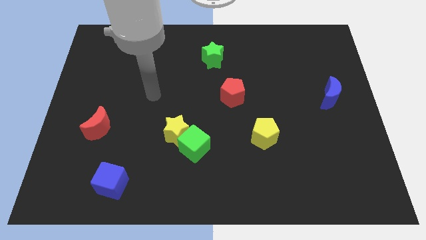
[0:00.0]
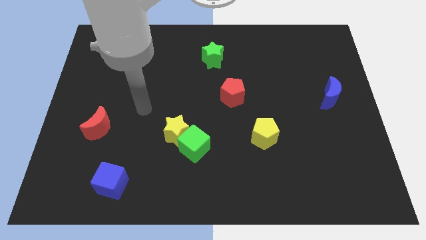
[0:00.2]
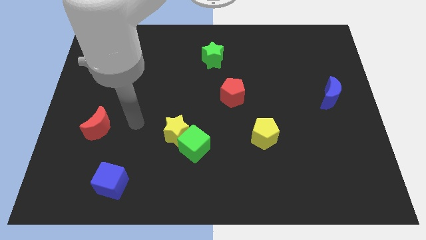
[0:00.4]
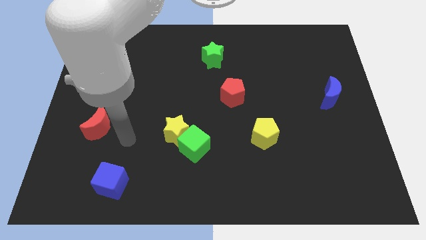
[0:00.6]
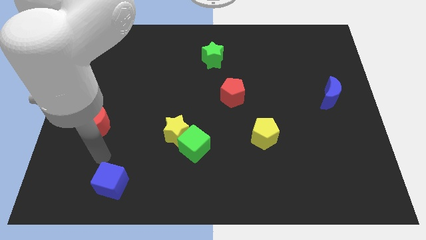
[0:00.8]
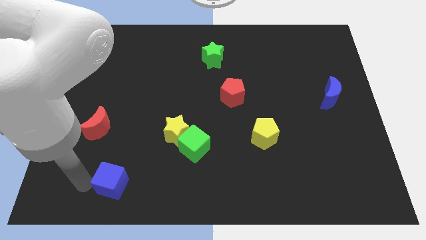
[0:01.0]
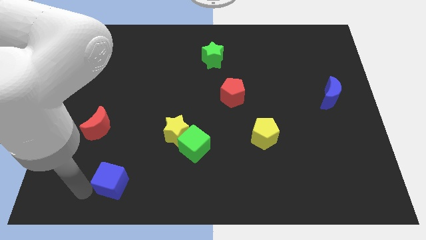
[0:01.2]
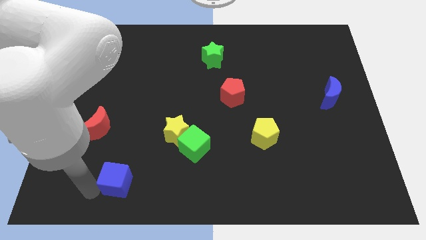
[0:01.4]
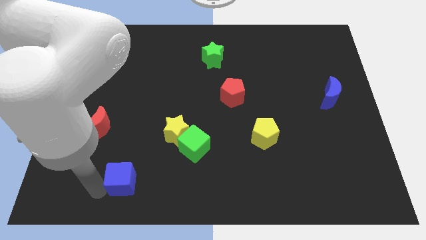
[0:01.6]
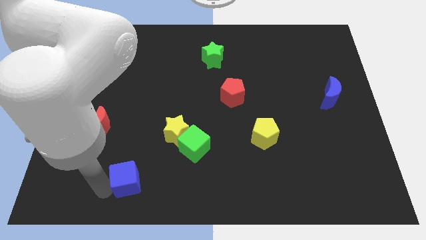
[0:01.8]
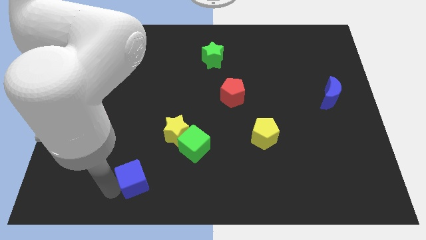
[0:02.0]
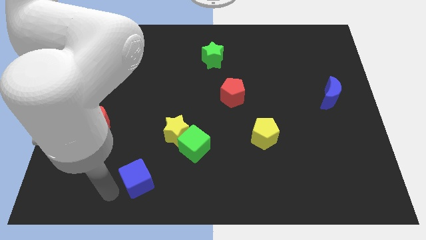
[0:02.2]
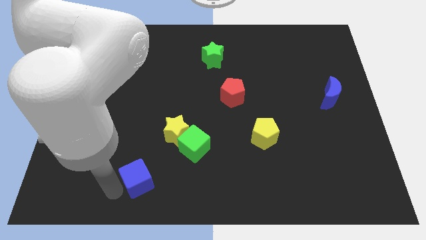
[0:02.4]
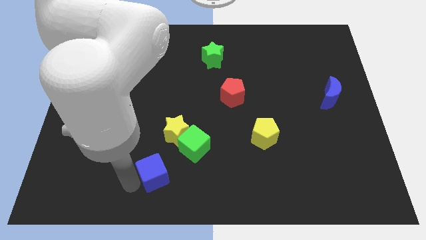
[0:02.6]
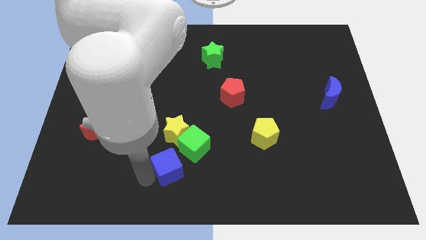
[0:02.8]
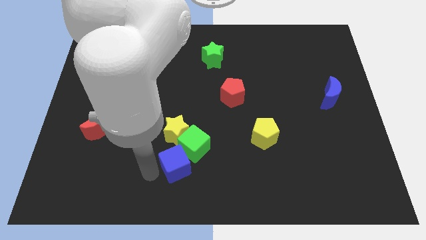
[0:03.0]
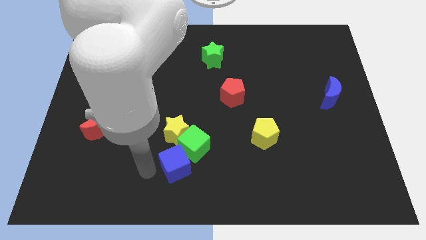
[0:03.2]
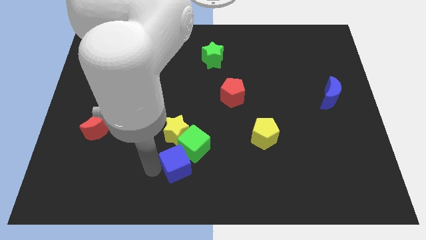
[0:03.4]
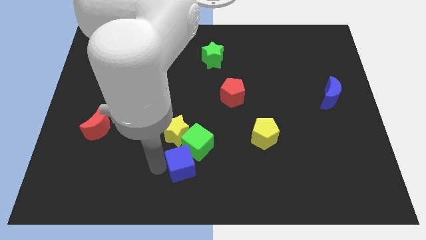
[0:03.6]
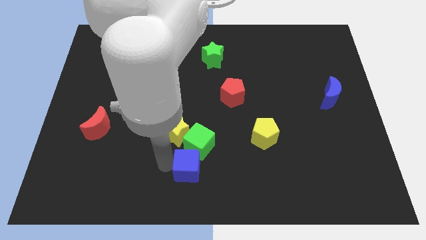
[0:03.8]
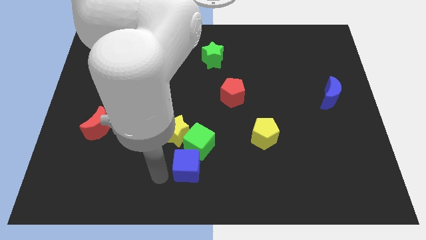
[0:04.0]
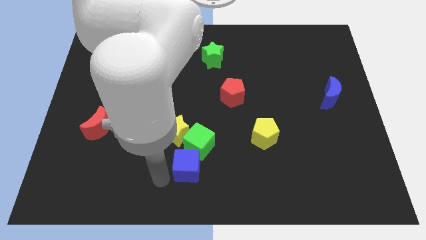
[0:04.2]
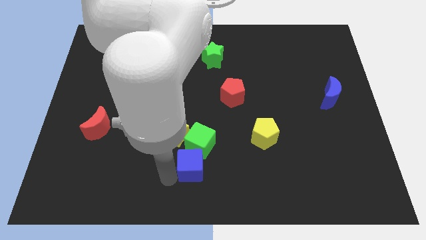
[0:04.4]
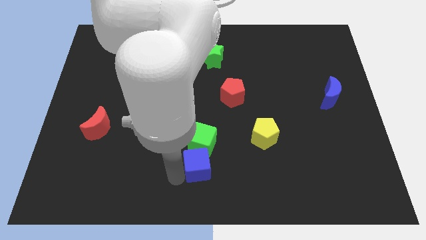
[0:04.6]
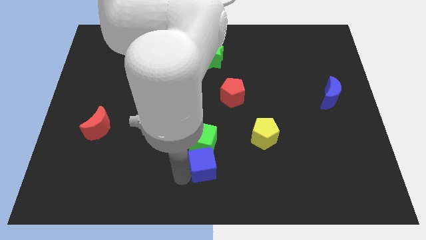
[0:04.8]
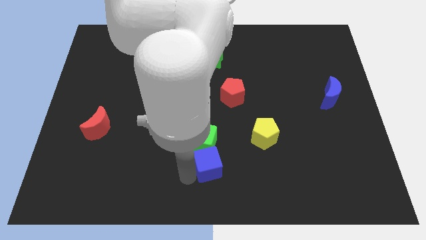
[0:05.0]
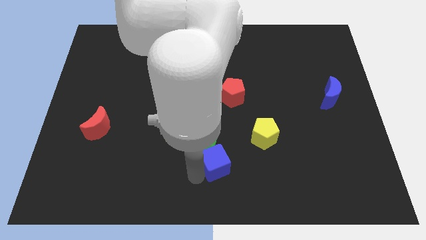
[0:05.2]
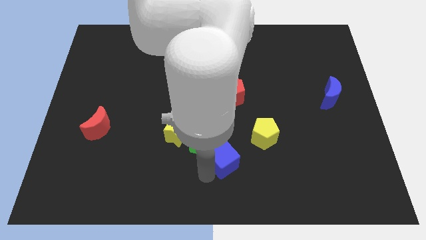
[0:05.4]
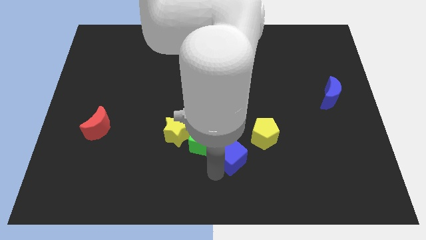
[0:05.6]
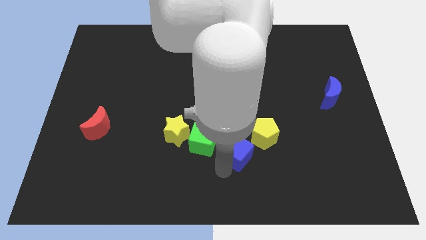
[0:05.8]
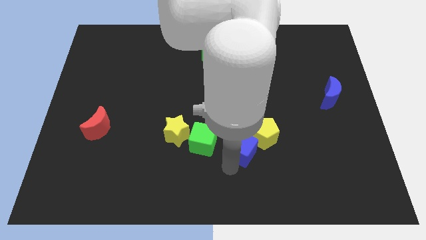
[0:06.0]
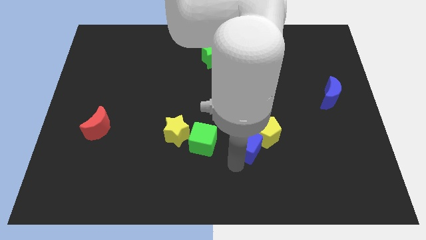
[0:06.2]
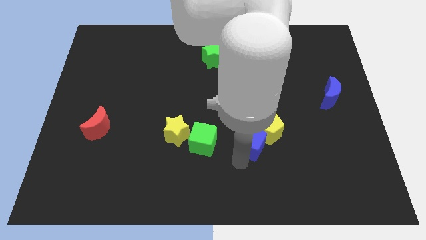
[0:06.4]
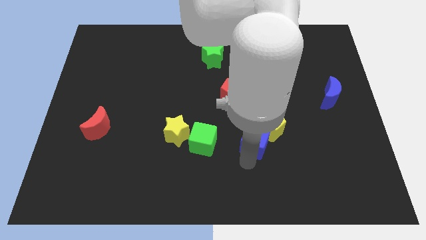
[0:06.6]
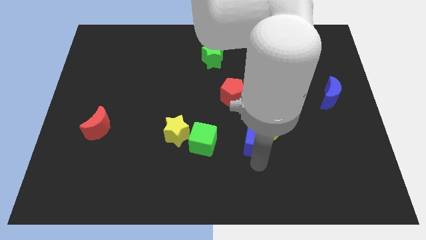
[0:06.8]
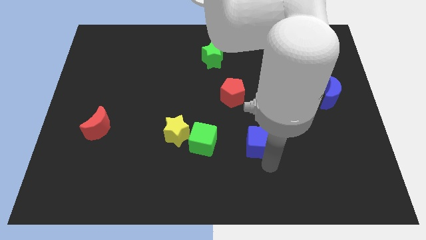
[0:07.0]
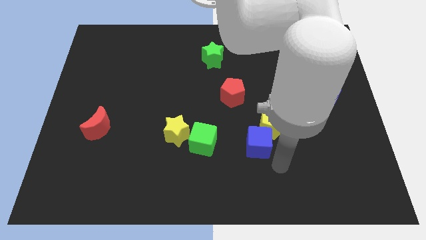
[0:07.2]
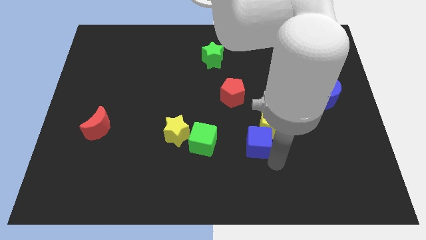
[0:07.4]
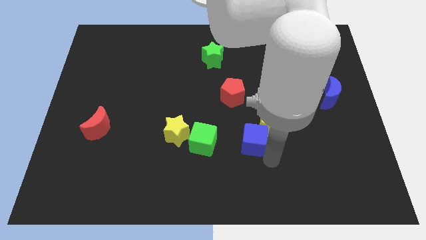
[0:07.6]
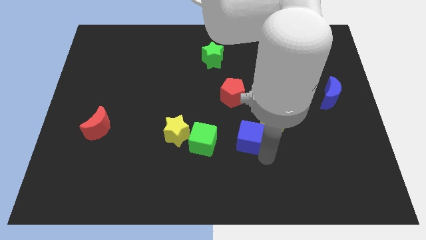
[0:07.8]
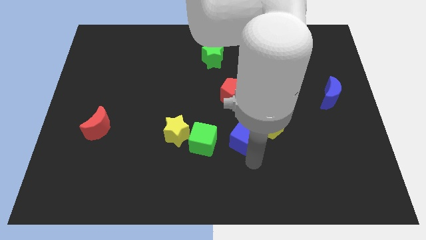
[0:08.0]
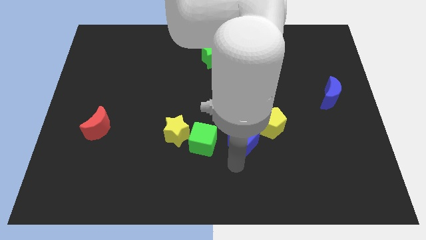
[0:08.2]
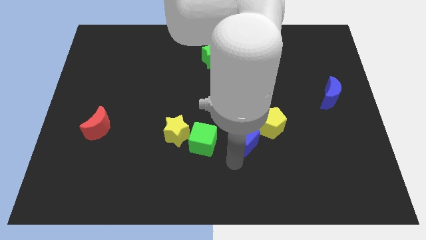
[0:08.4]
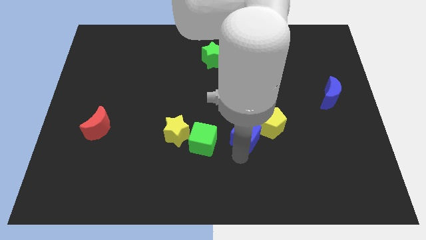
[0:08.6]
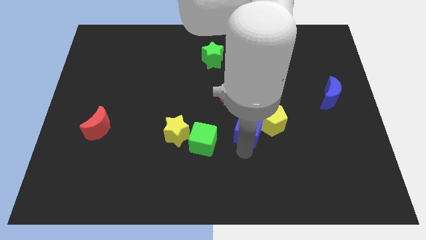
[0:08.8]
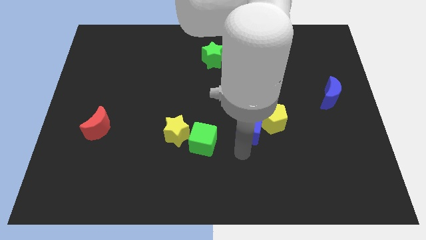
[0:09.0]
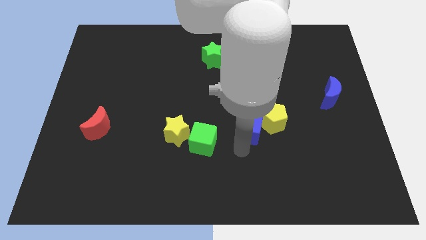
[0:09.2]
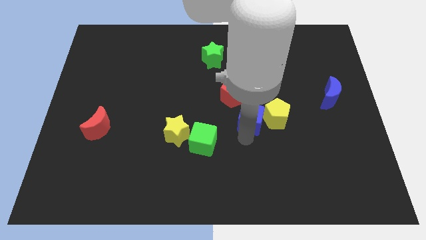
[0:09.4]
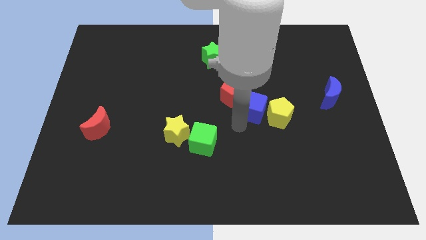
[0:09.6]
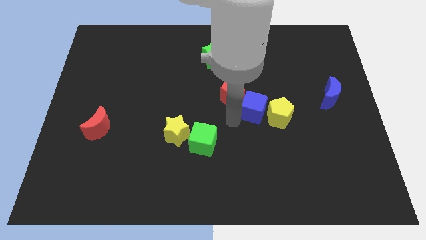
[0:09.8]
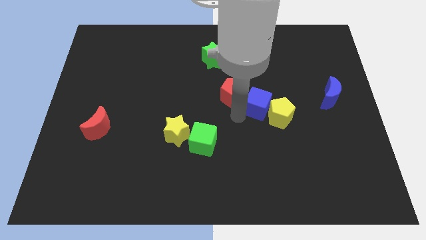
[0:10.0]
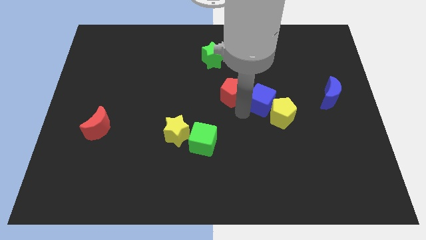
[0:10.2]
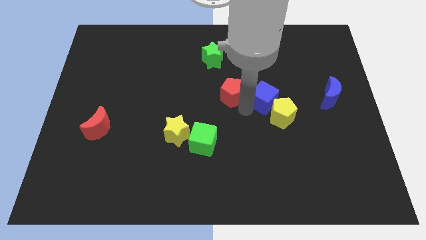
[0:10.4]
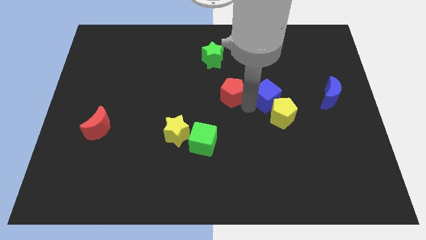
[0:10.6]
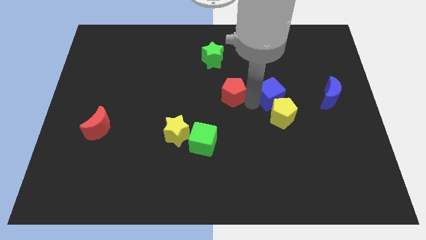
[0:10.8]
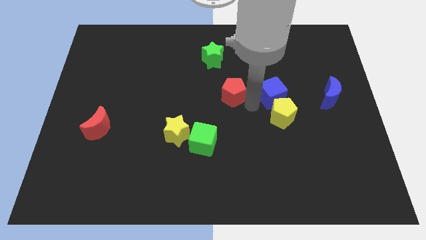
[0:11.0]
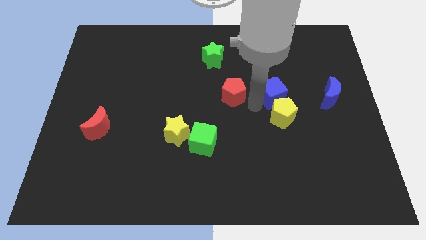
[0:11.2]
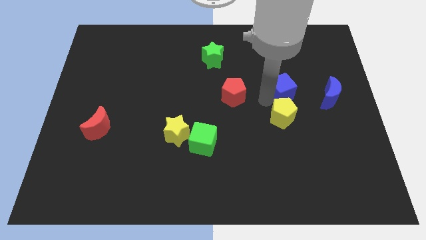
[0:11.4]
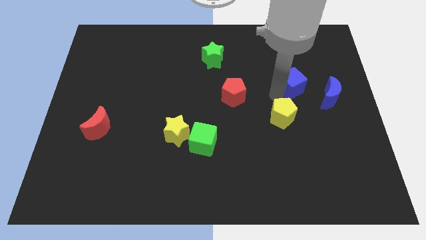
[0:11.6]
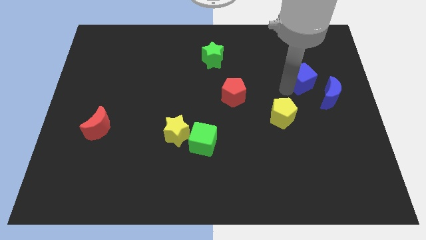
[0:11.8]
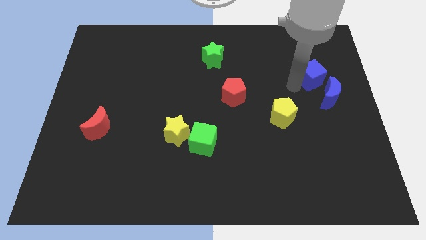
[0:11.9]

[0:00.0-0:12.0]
put the blue cube to the top side of the blue moon

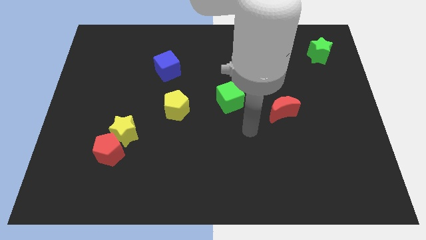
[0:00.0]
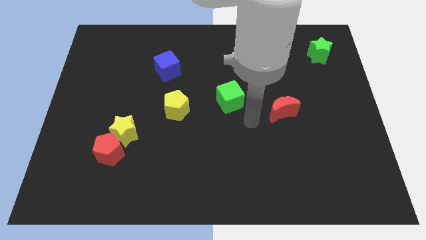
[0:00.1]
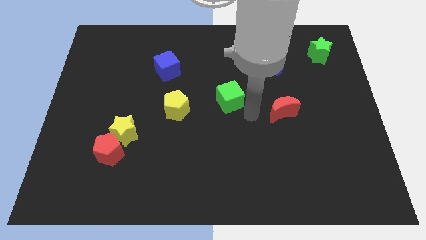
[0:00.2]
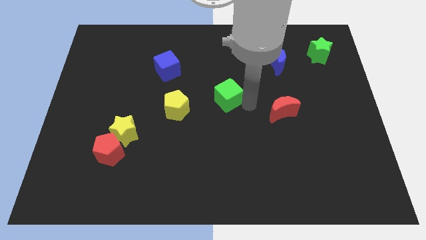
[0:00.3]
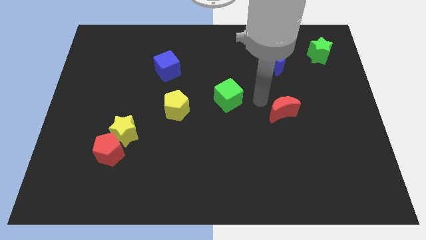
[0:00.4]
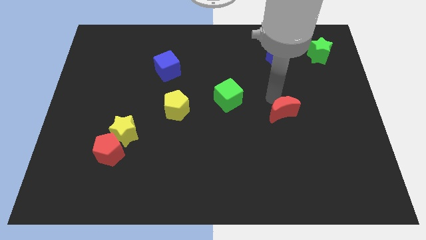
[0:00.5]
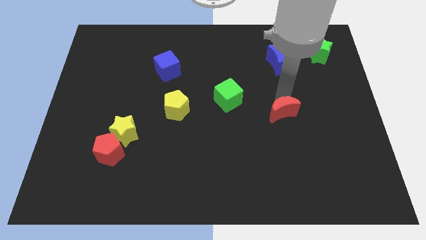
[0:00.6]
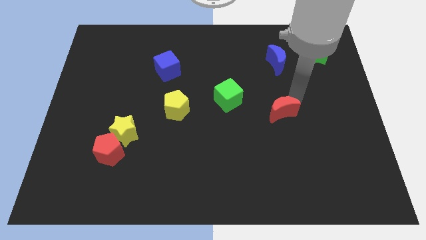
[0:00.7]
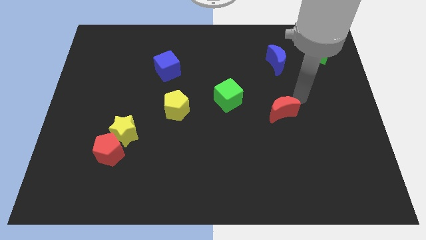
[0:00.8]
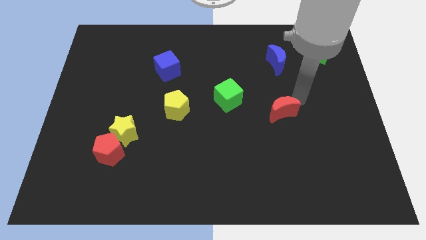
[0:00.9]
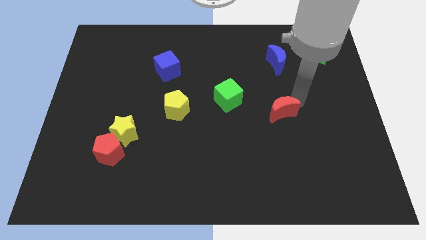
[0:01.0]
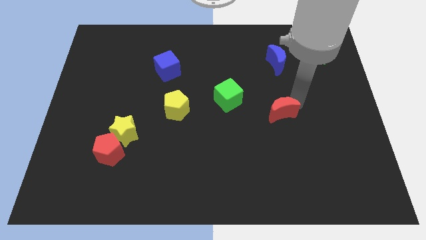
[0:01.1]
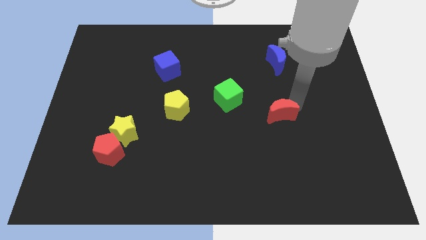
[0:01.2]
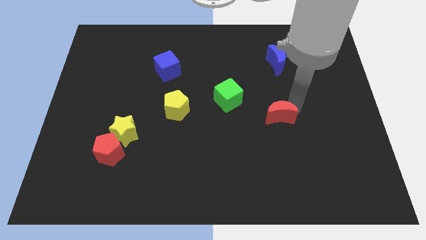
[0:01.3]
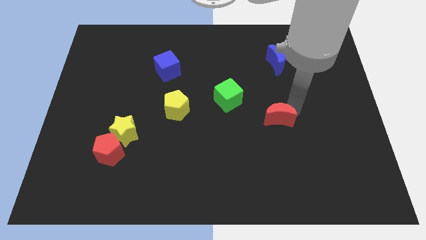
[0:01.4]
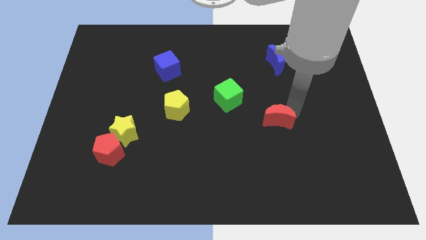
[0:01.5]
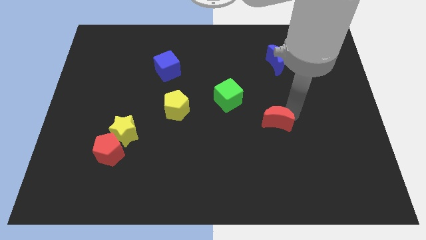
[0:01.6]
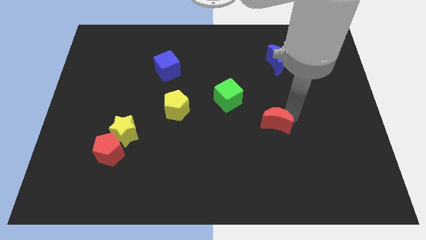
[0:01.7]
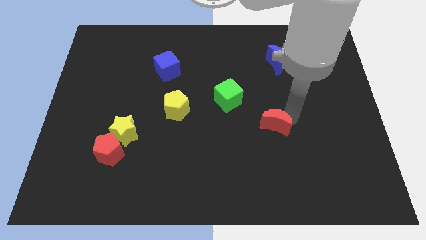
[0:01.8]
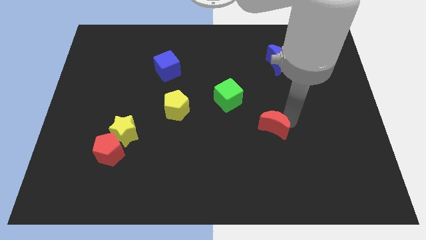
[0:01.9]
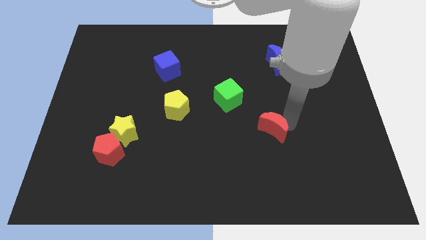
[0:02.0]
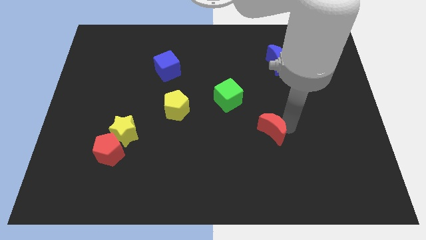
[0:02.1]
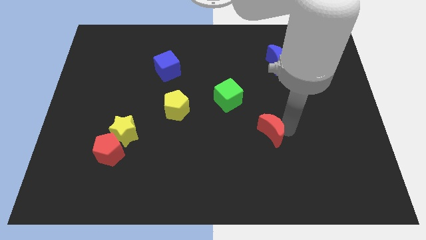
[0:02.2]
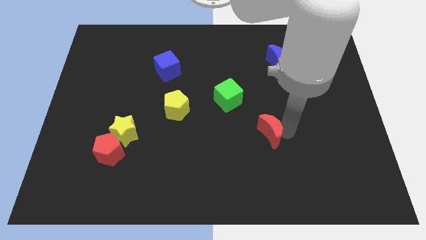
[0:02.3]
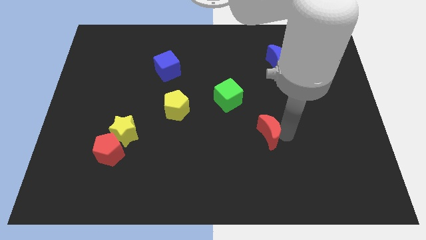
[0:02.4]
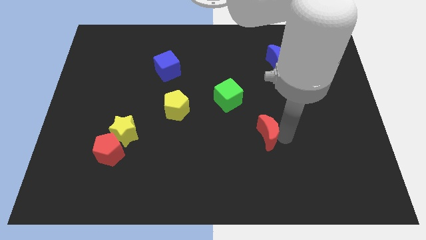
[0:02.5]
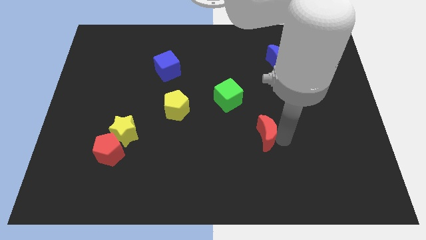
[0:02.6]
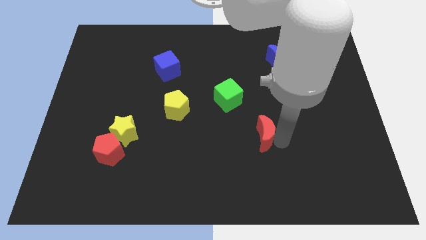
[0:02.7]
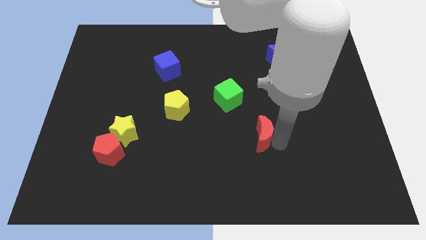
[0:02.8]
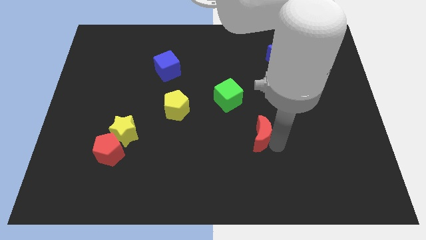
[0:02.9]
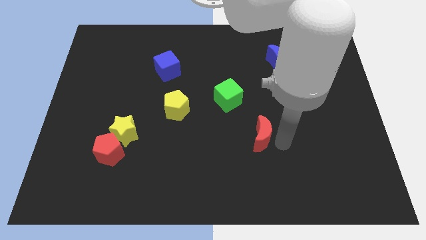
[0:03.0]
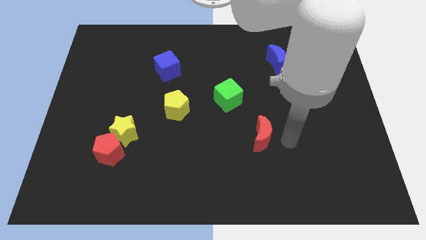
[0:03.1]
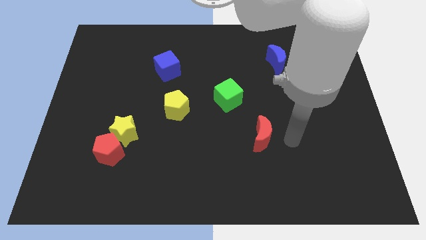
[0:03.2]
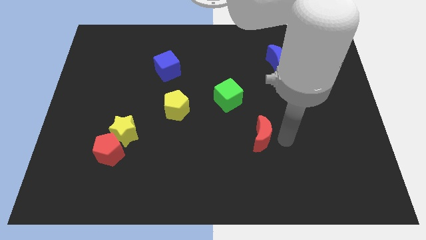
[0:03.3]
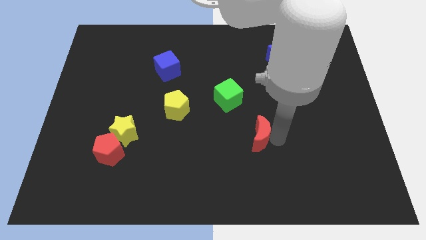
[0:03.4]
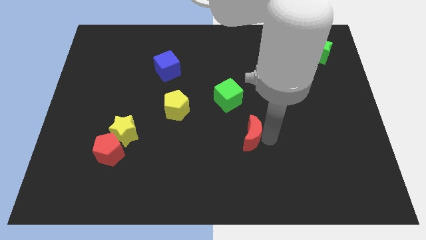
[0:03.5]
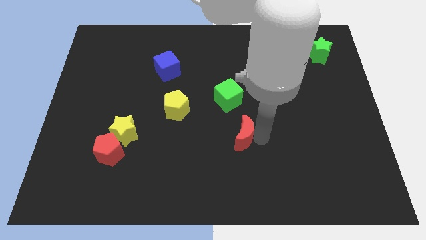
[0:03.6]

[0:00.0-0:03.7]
push the red moon to the bottom of the green cube
